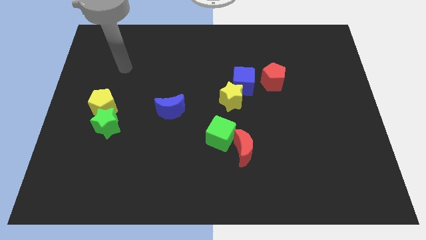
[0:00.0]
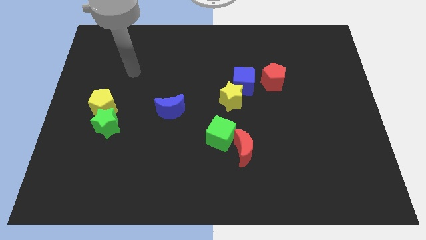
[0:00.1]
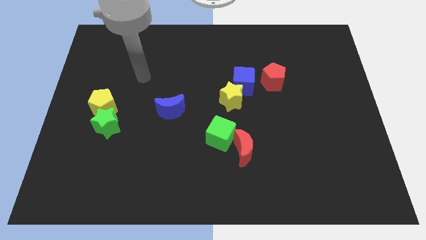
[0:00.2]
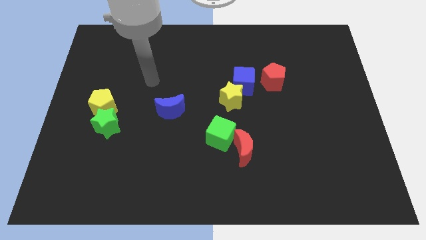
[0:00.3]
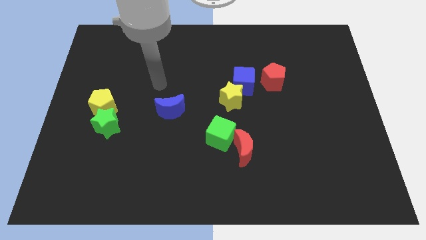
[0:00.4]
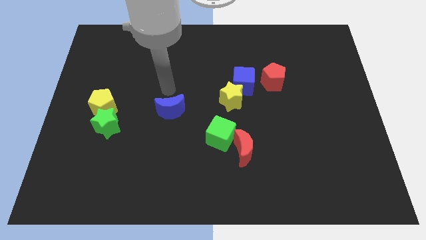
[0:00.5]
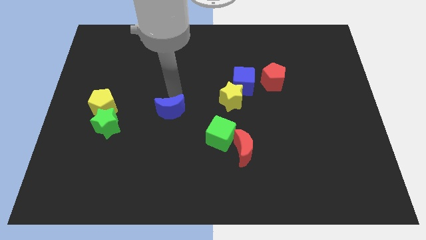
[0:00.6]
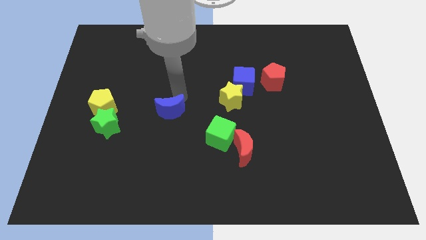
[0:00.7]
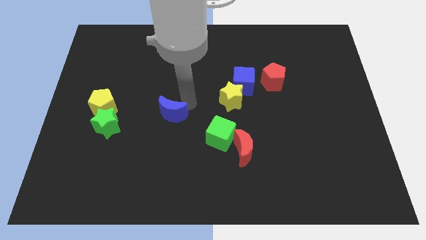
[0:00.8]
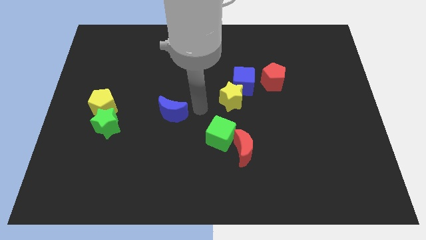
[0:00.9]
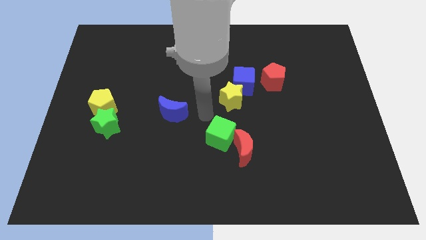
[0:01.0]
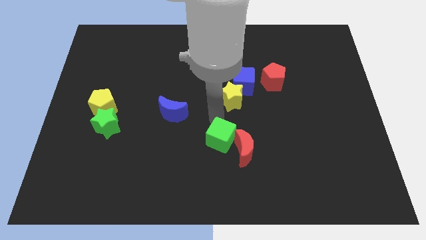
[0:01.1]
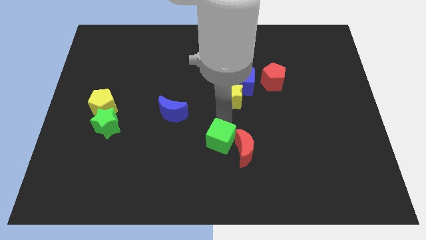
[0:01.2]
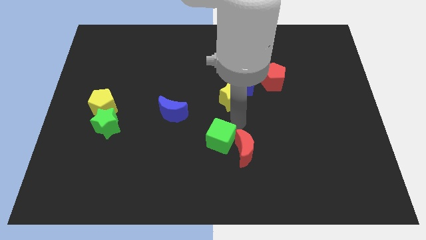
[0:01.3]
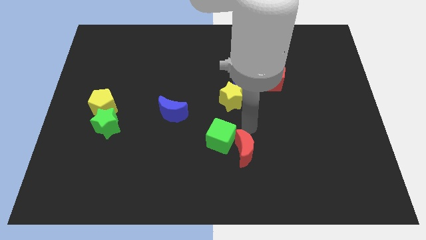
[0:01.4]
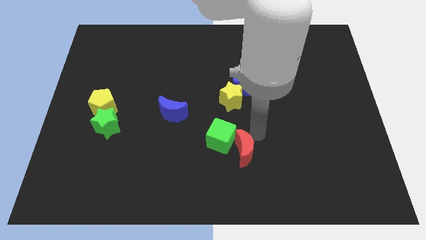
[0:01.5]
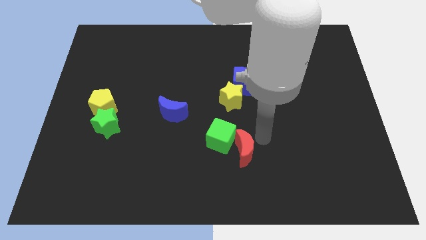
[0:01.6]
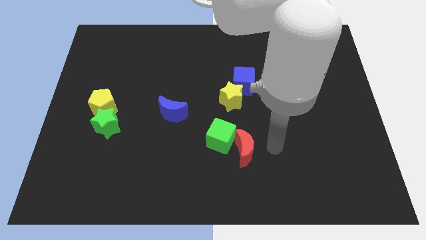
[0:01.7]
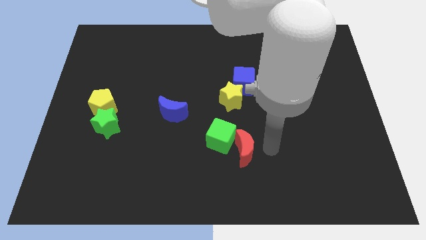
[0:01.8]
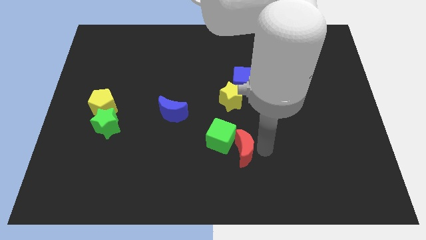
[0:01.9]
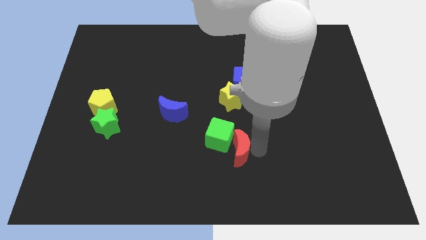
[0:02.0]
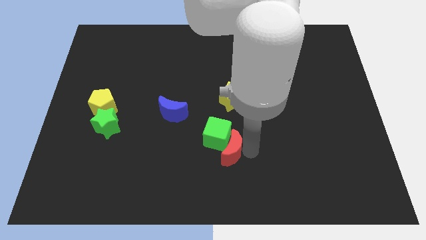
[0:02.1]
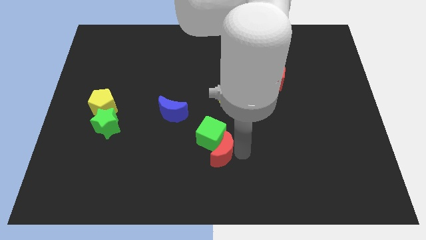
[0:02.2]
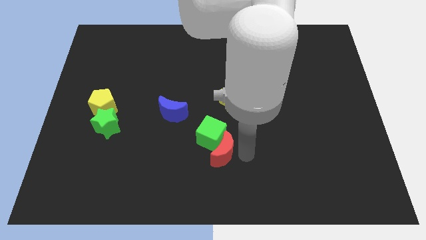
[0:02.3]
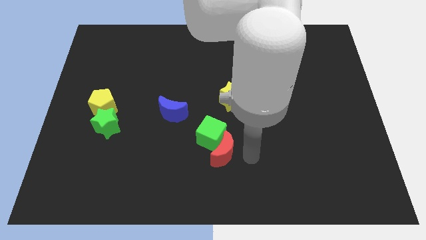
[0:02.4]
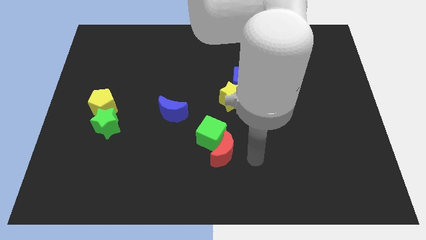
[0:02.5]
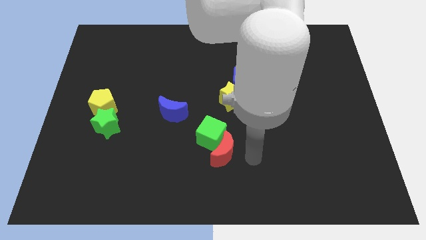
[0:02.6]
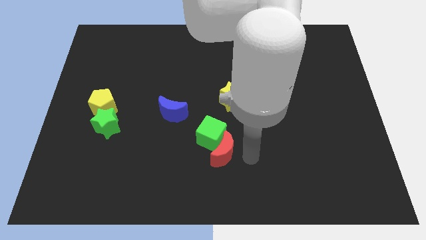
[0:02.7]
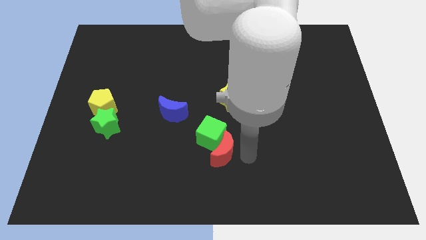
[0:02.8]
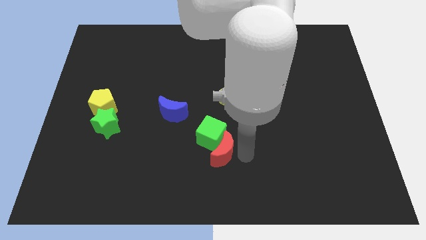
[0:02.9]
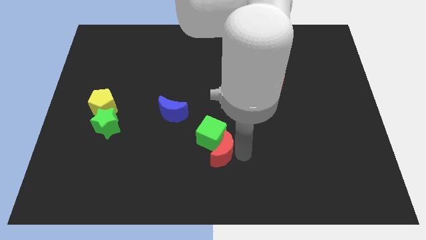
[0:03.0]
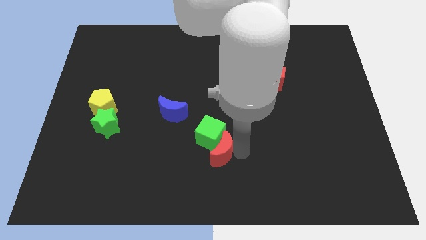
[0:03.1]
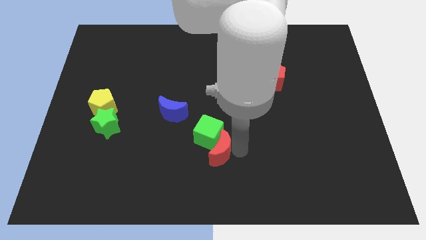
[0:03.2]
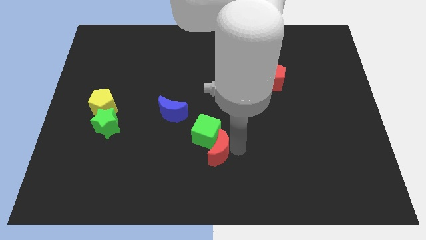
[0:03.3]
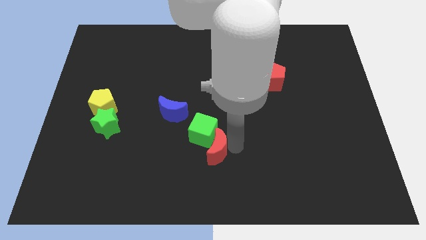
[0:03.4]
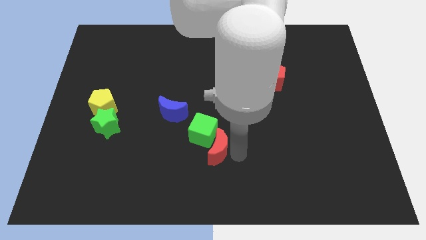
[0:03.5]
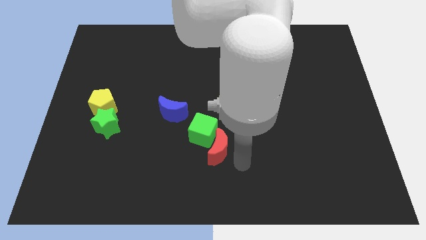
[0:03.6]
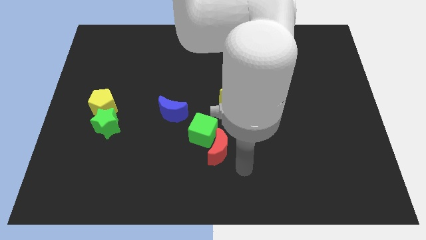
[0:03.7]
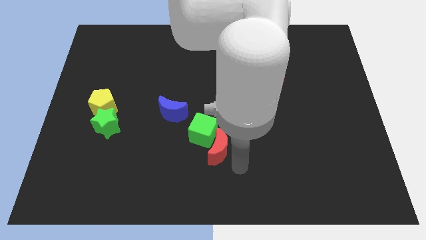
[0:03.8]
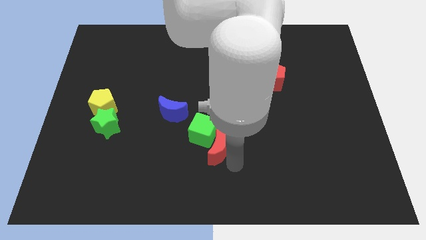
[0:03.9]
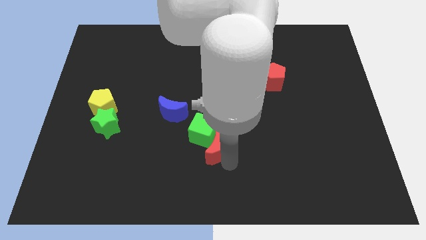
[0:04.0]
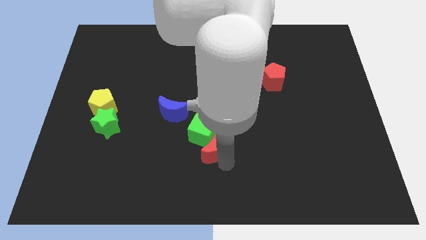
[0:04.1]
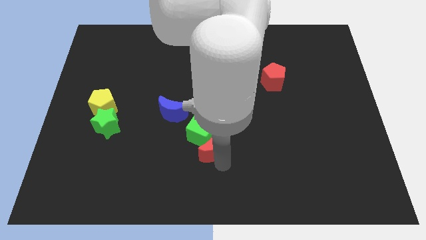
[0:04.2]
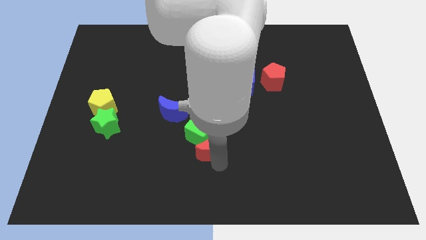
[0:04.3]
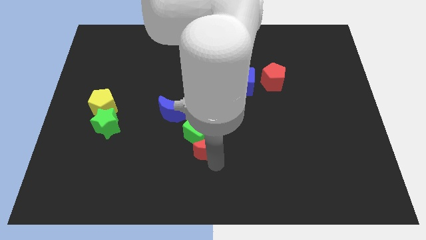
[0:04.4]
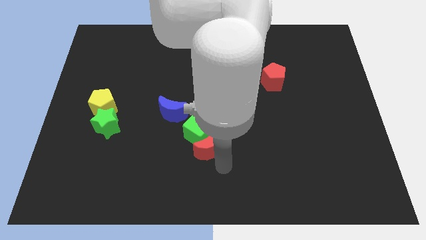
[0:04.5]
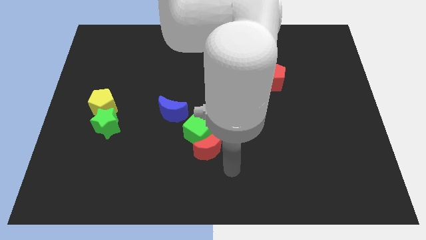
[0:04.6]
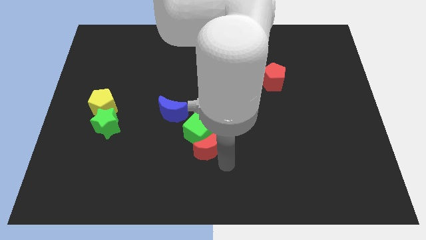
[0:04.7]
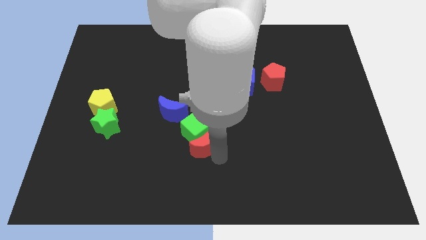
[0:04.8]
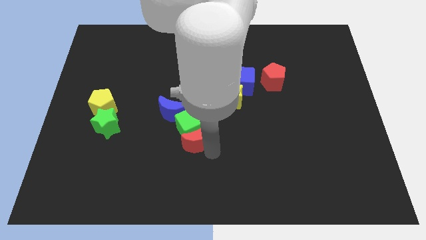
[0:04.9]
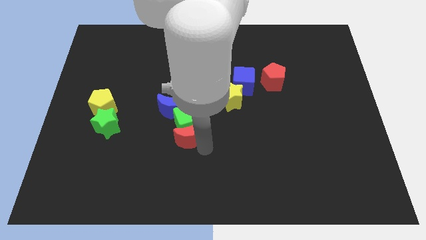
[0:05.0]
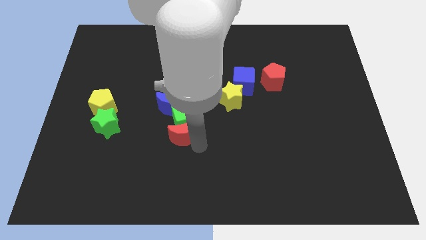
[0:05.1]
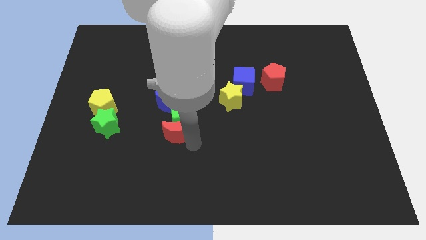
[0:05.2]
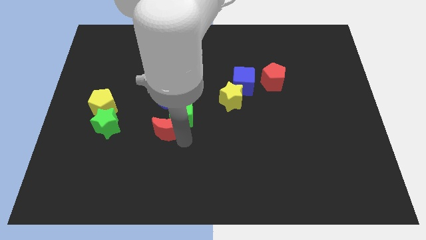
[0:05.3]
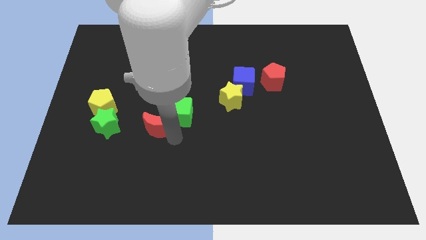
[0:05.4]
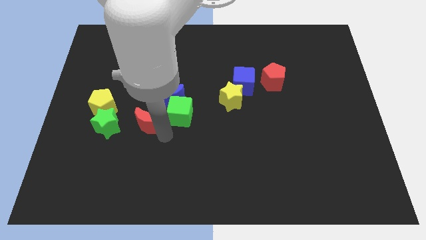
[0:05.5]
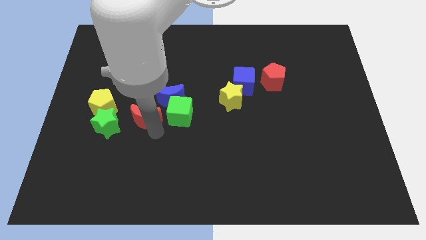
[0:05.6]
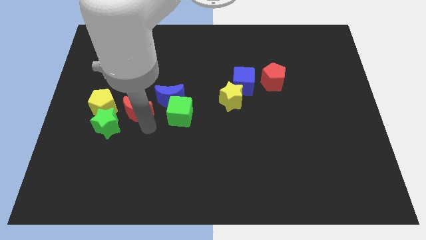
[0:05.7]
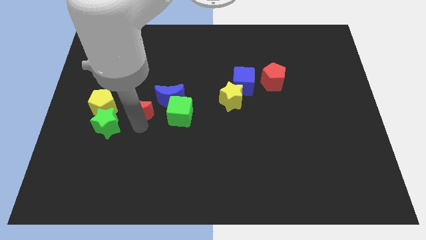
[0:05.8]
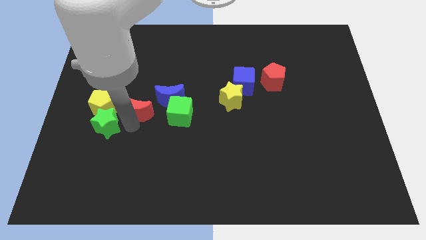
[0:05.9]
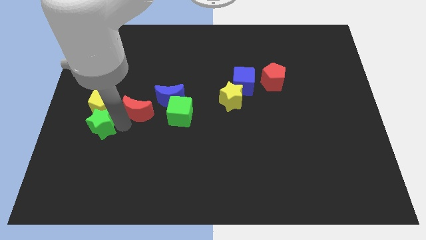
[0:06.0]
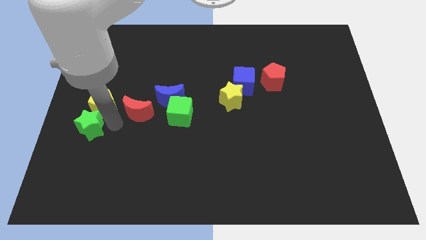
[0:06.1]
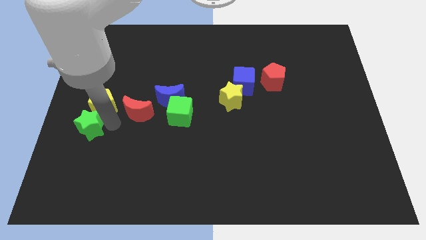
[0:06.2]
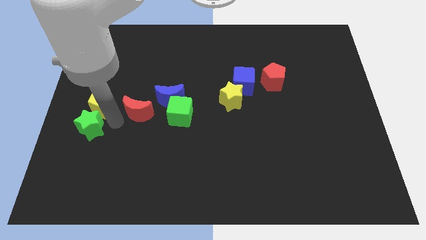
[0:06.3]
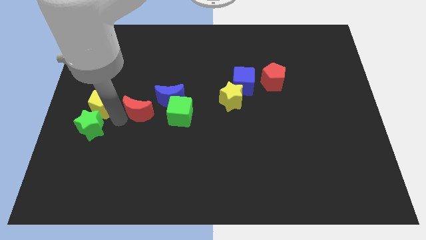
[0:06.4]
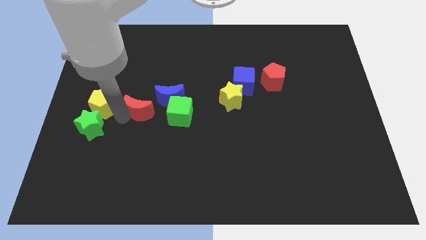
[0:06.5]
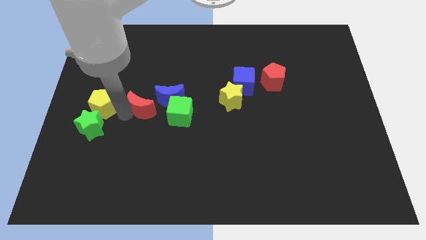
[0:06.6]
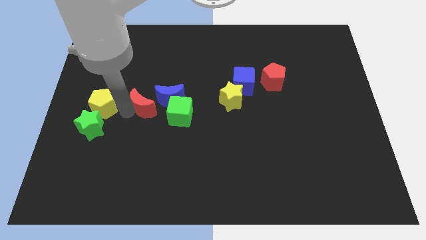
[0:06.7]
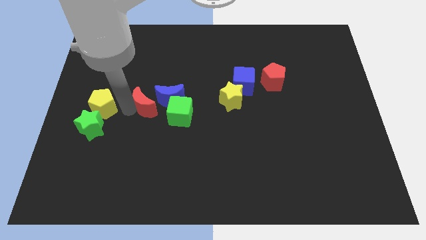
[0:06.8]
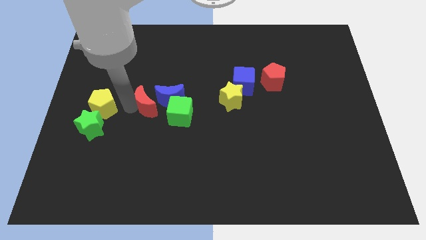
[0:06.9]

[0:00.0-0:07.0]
slide the red moon towards the blue moon
